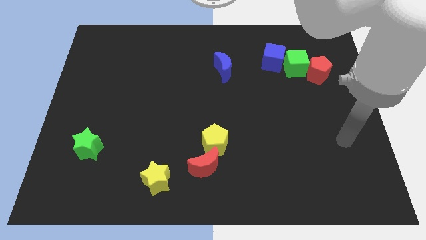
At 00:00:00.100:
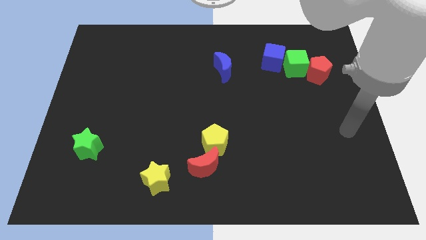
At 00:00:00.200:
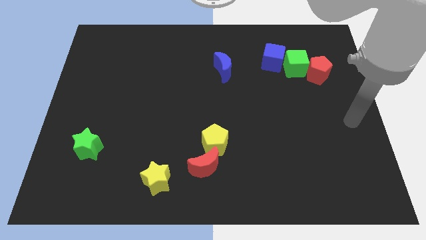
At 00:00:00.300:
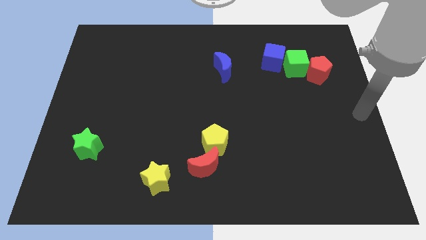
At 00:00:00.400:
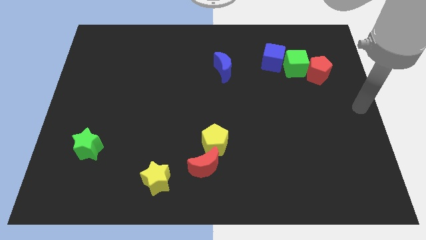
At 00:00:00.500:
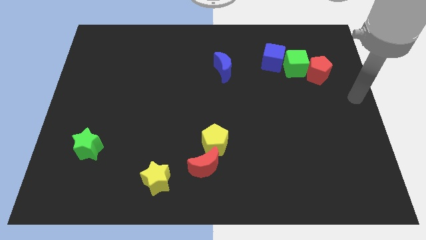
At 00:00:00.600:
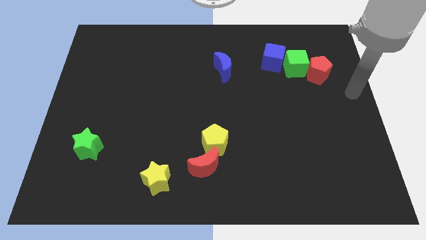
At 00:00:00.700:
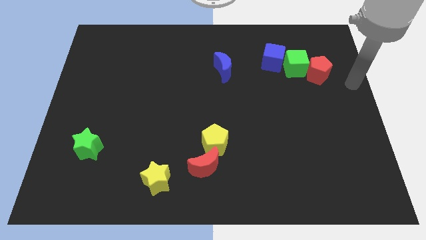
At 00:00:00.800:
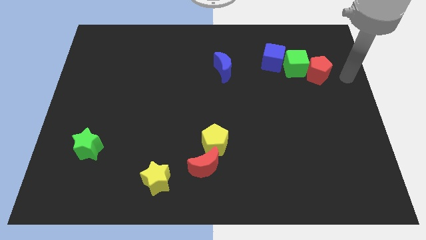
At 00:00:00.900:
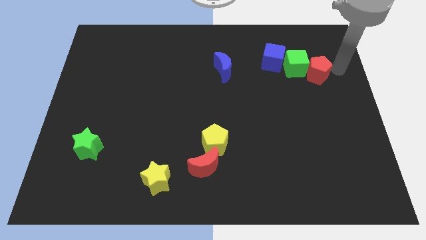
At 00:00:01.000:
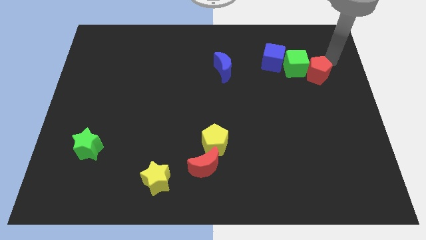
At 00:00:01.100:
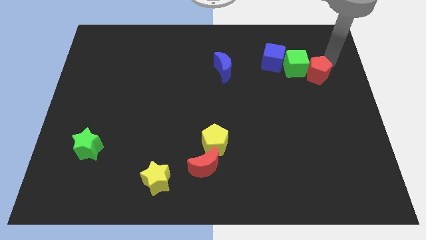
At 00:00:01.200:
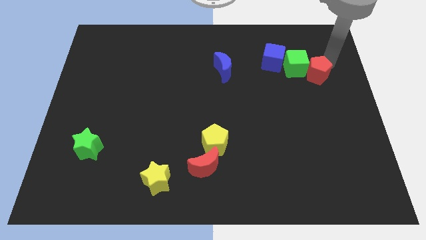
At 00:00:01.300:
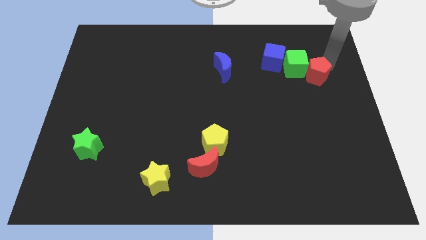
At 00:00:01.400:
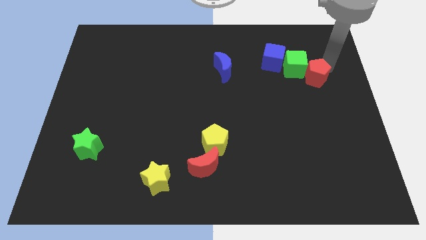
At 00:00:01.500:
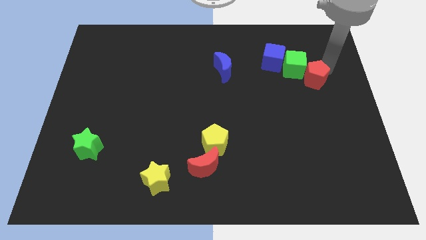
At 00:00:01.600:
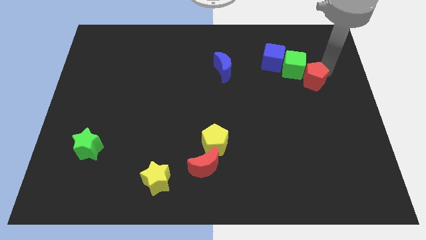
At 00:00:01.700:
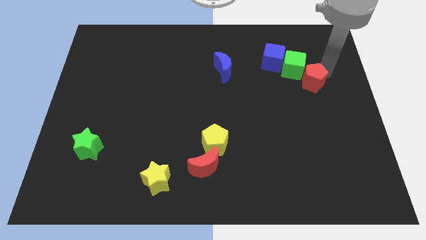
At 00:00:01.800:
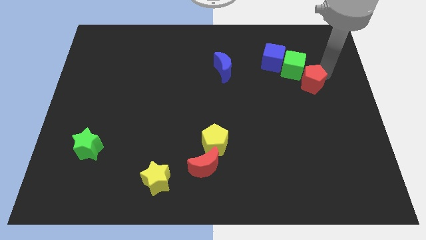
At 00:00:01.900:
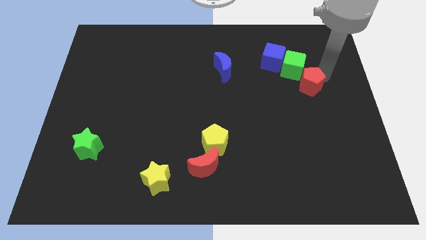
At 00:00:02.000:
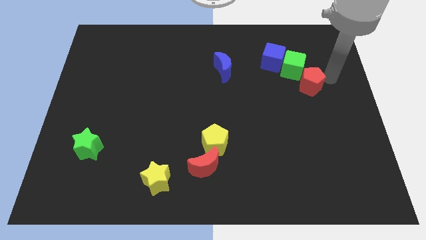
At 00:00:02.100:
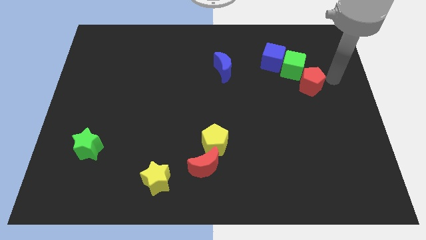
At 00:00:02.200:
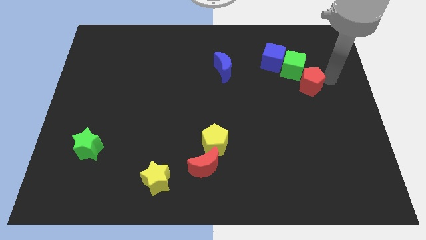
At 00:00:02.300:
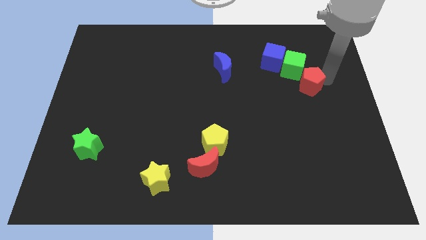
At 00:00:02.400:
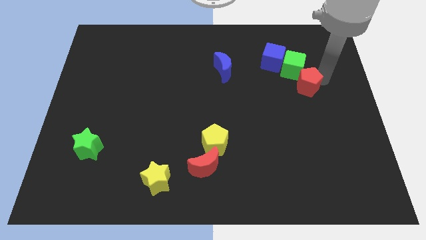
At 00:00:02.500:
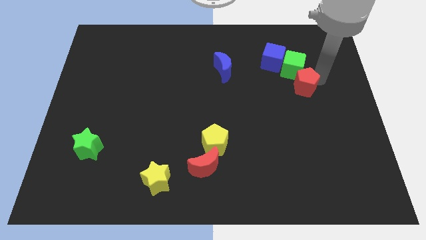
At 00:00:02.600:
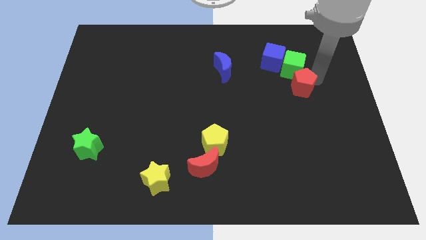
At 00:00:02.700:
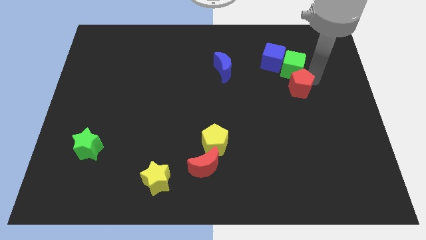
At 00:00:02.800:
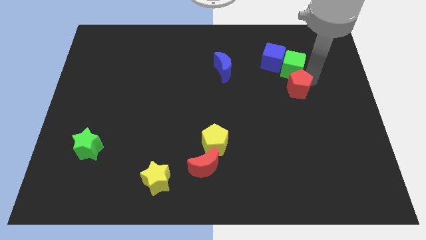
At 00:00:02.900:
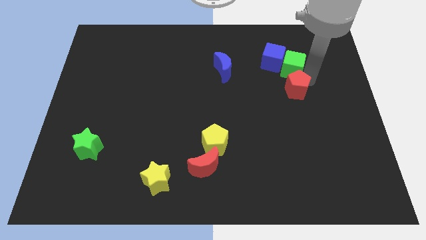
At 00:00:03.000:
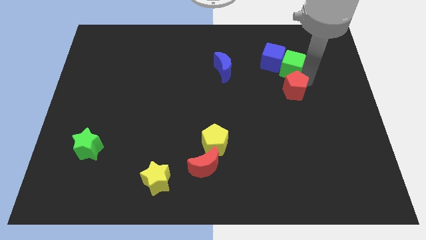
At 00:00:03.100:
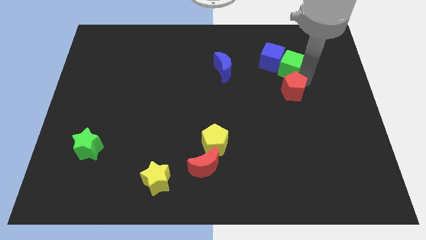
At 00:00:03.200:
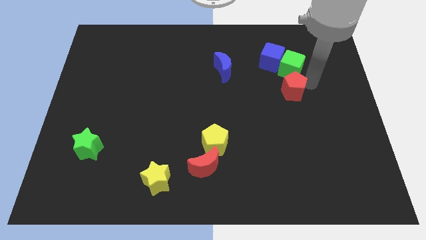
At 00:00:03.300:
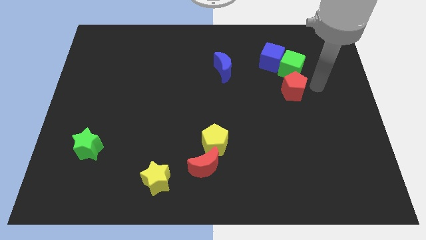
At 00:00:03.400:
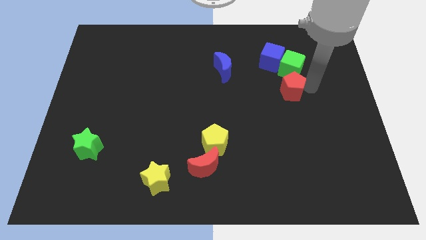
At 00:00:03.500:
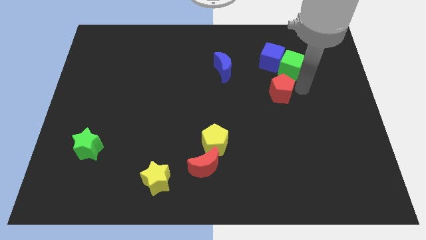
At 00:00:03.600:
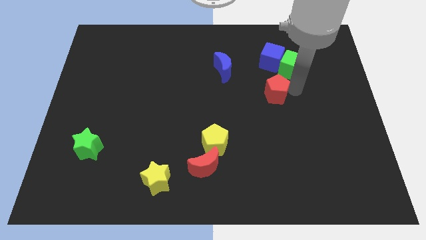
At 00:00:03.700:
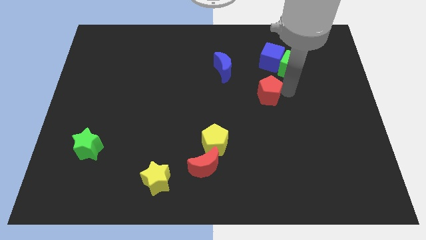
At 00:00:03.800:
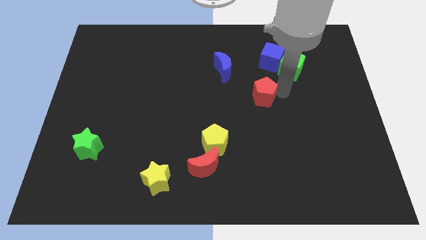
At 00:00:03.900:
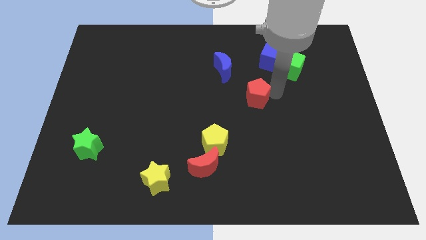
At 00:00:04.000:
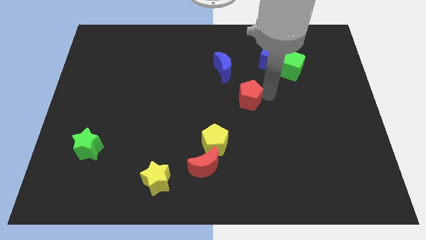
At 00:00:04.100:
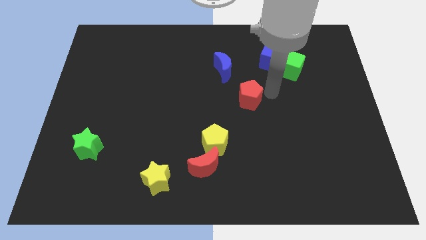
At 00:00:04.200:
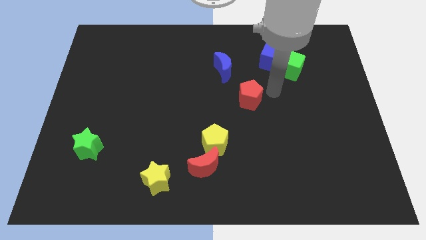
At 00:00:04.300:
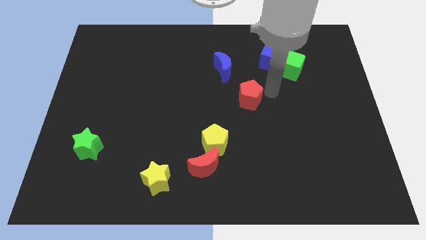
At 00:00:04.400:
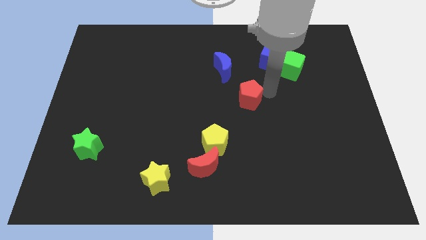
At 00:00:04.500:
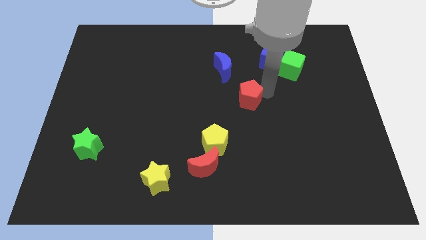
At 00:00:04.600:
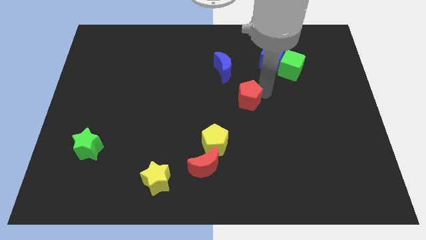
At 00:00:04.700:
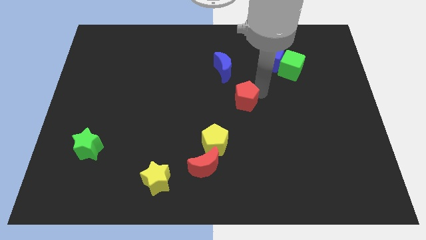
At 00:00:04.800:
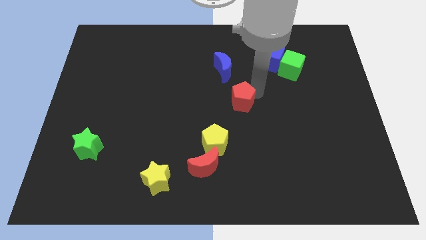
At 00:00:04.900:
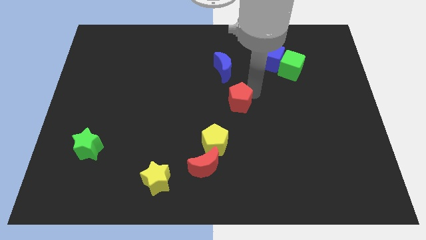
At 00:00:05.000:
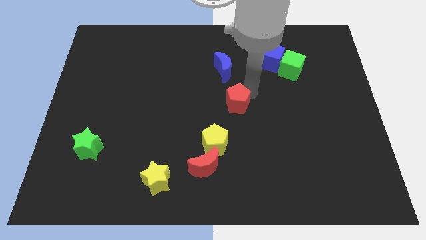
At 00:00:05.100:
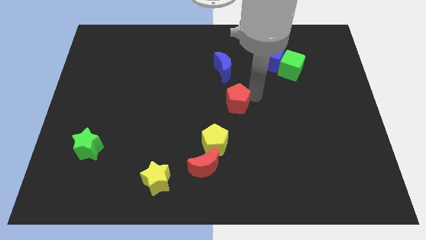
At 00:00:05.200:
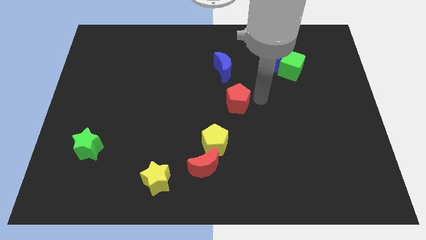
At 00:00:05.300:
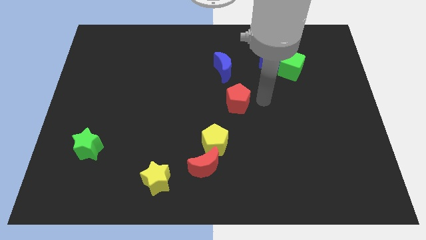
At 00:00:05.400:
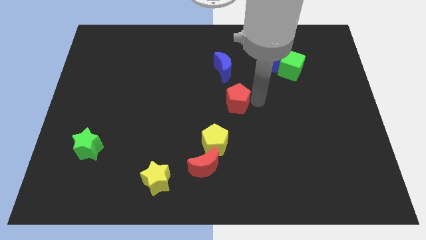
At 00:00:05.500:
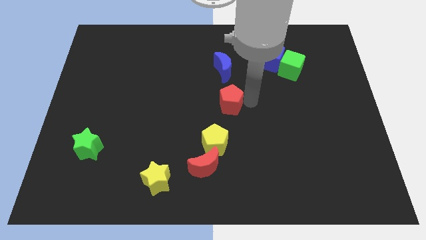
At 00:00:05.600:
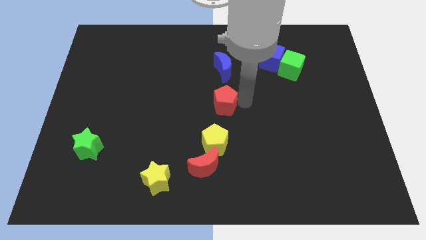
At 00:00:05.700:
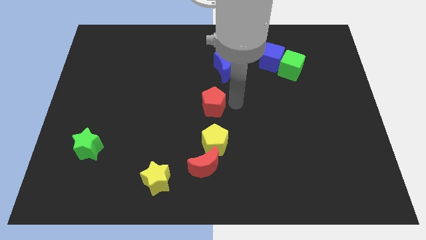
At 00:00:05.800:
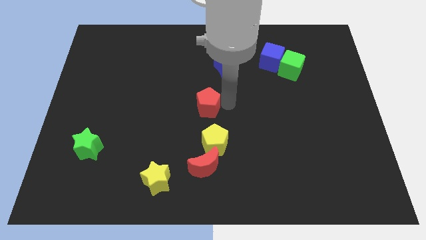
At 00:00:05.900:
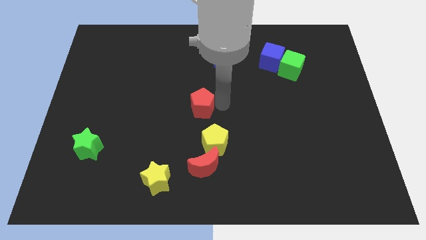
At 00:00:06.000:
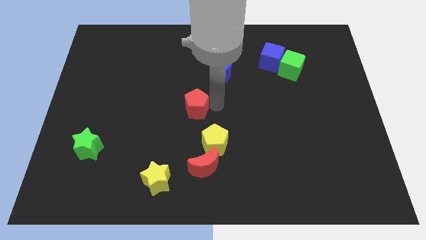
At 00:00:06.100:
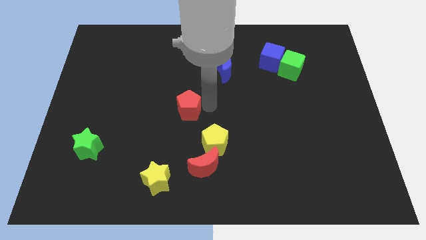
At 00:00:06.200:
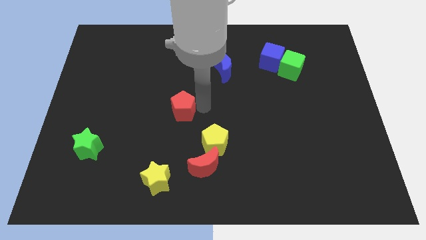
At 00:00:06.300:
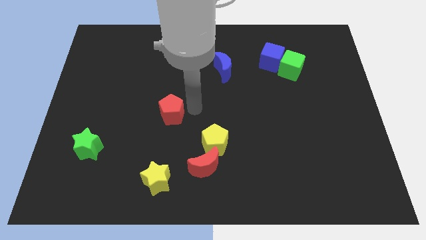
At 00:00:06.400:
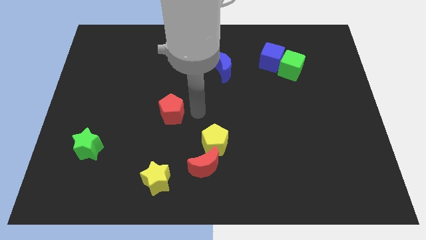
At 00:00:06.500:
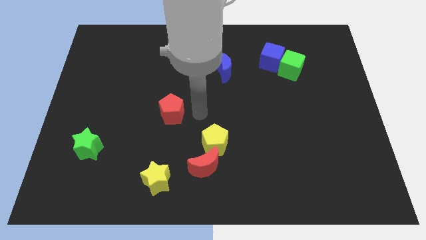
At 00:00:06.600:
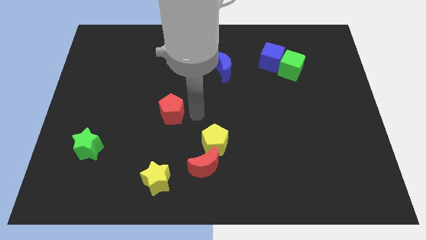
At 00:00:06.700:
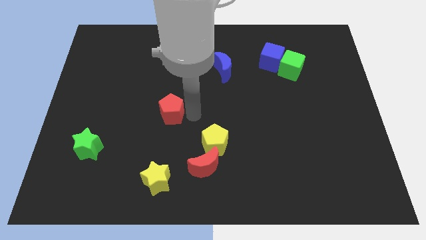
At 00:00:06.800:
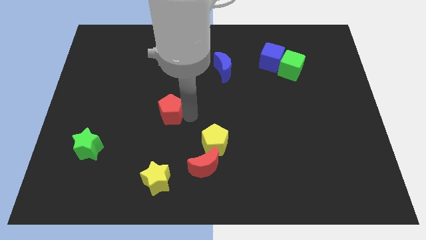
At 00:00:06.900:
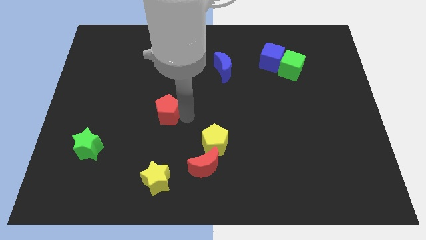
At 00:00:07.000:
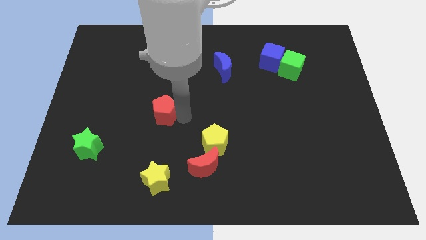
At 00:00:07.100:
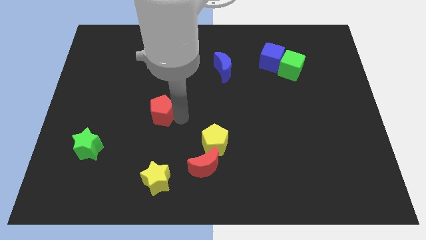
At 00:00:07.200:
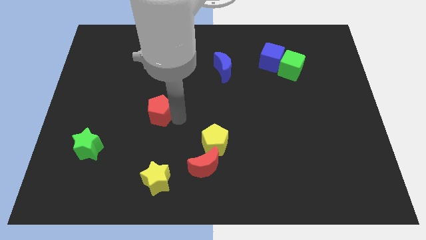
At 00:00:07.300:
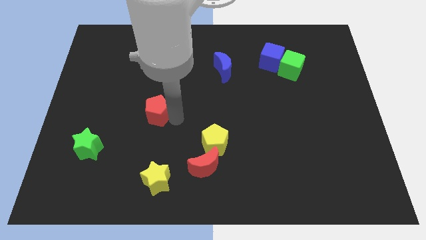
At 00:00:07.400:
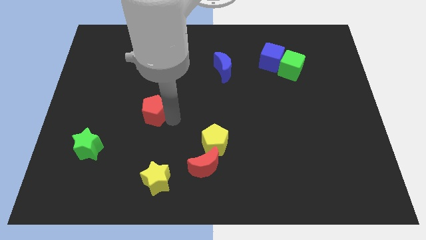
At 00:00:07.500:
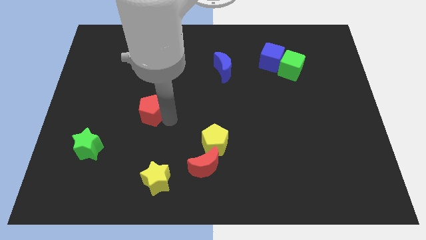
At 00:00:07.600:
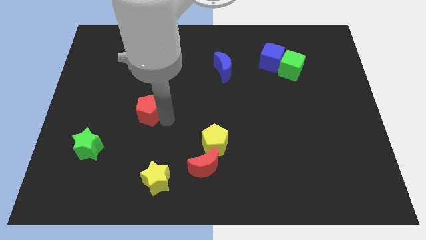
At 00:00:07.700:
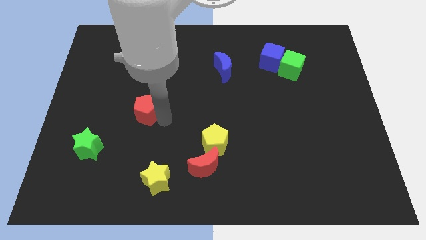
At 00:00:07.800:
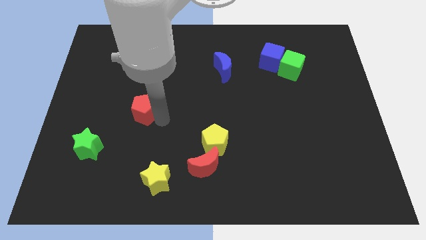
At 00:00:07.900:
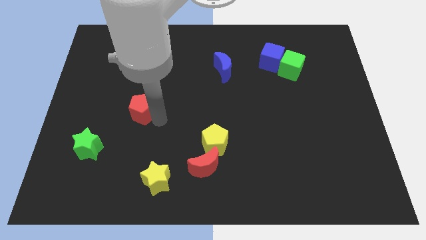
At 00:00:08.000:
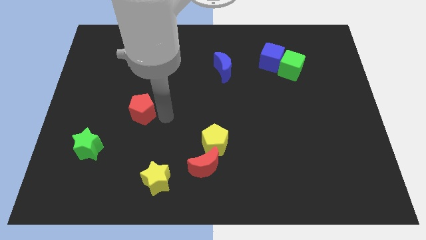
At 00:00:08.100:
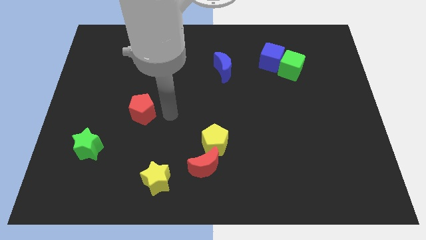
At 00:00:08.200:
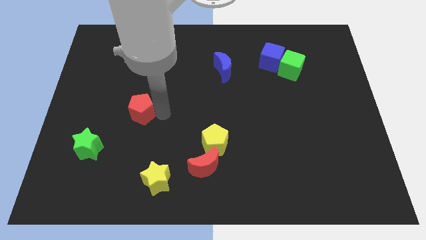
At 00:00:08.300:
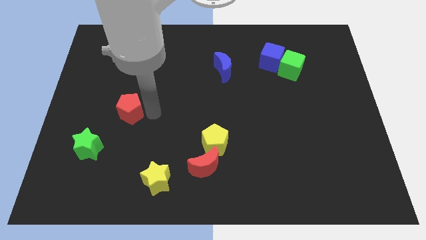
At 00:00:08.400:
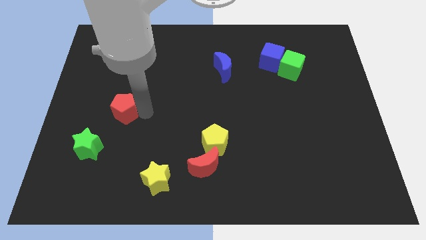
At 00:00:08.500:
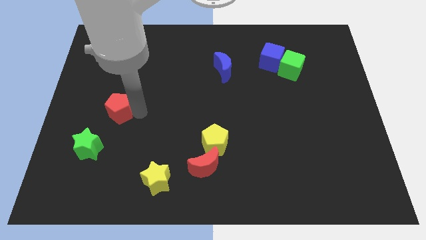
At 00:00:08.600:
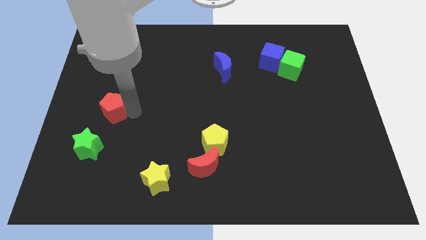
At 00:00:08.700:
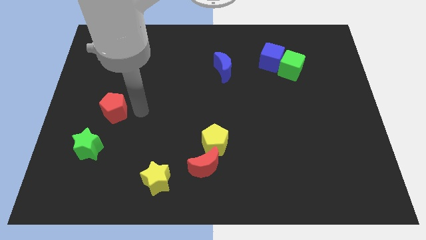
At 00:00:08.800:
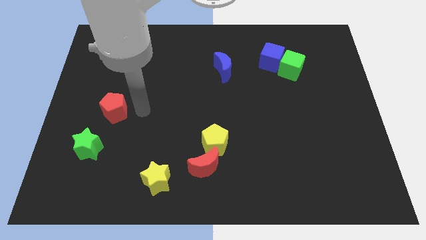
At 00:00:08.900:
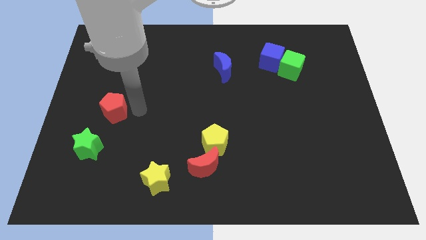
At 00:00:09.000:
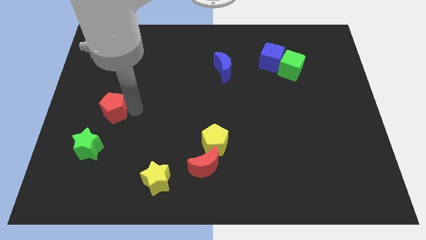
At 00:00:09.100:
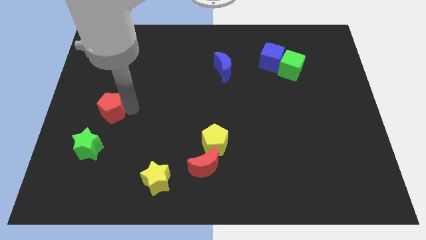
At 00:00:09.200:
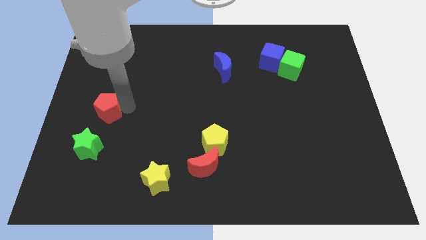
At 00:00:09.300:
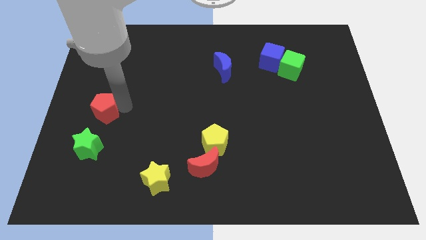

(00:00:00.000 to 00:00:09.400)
slide the red pentagon to the center left
